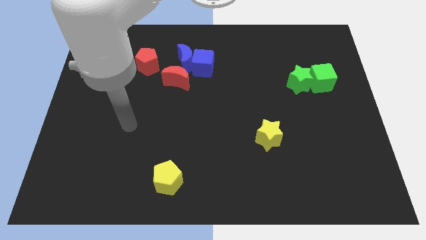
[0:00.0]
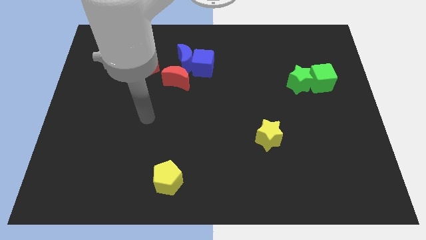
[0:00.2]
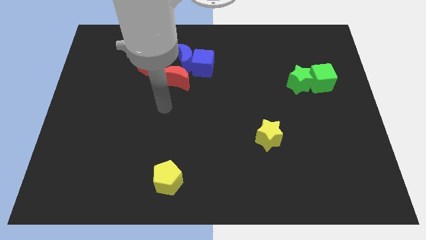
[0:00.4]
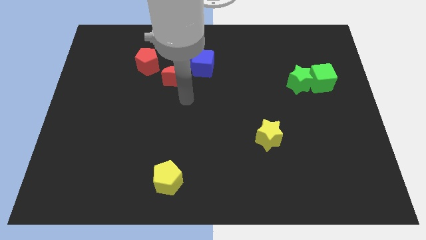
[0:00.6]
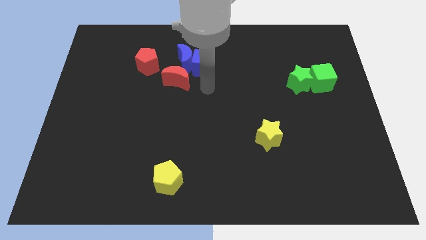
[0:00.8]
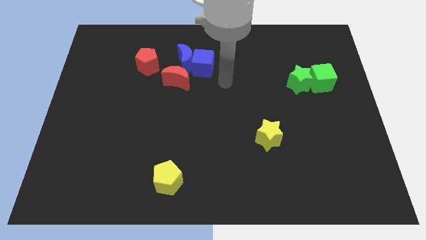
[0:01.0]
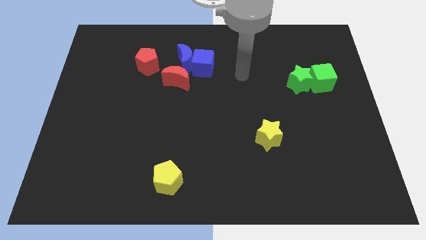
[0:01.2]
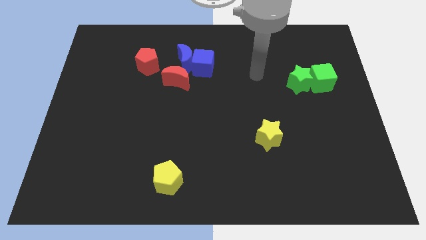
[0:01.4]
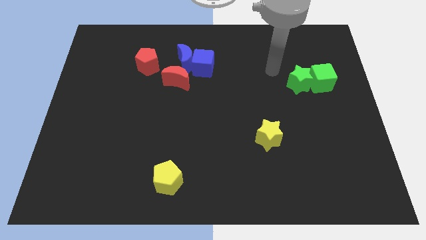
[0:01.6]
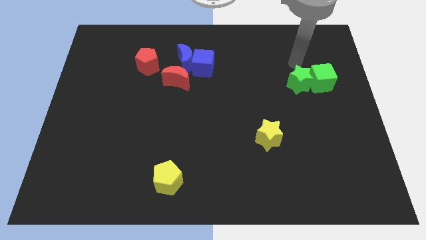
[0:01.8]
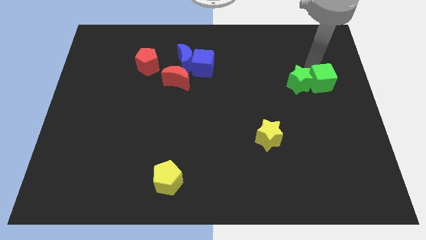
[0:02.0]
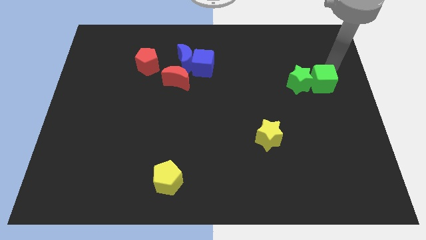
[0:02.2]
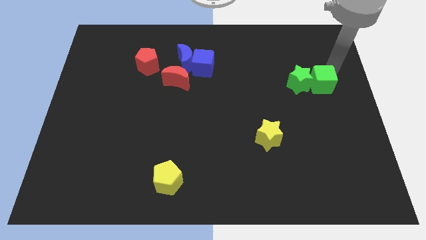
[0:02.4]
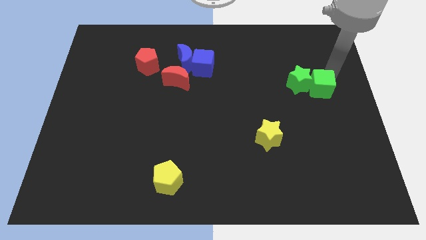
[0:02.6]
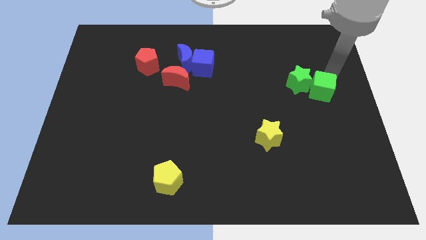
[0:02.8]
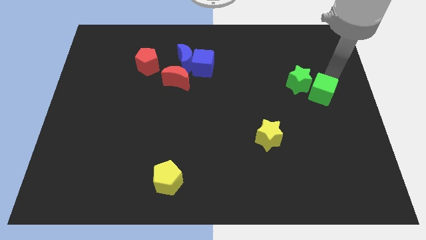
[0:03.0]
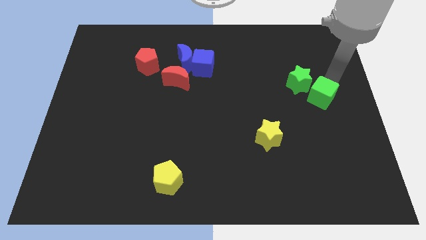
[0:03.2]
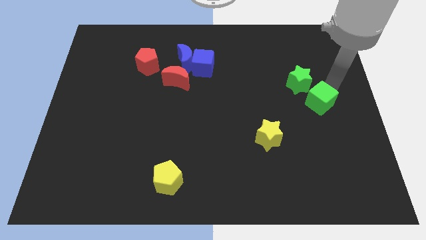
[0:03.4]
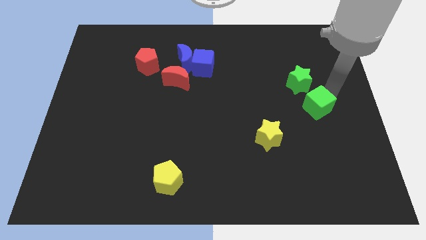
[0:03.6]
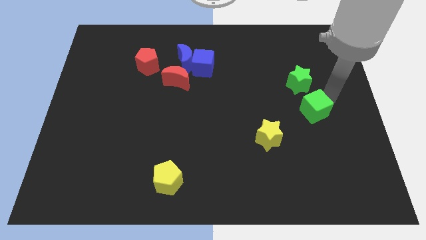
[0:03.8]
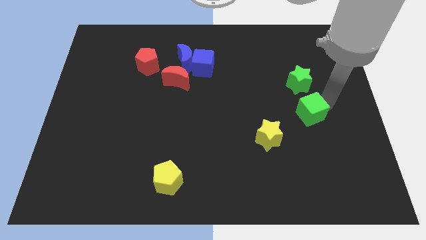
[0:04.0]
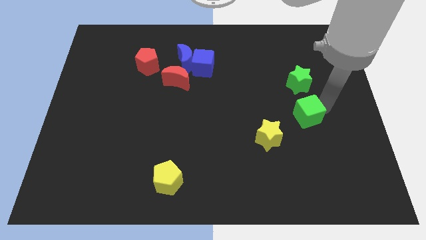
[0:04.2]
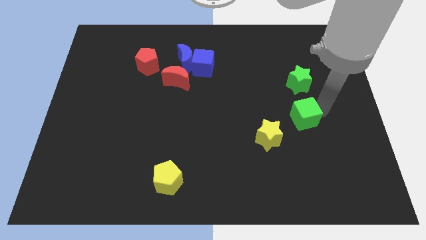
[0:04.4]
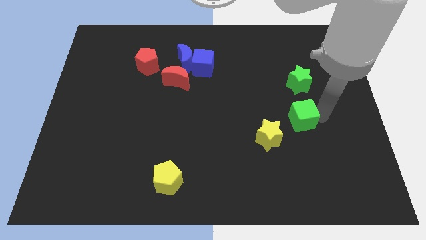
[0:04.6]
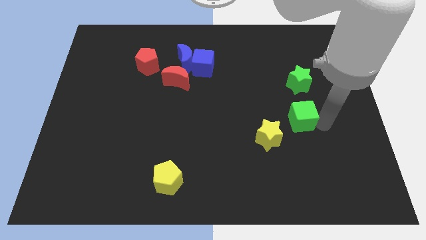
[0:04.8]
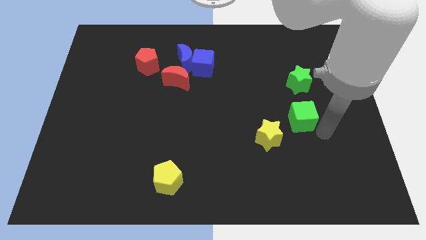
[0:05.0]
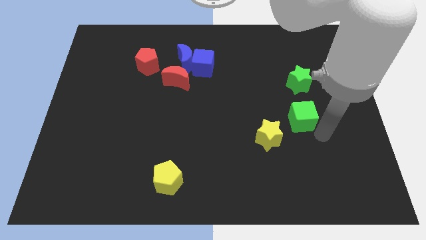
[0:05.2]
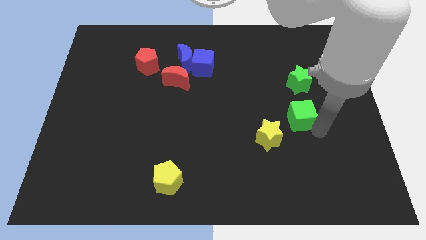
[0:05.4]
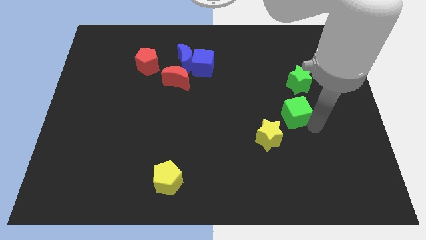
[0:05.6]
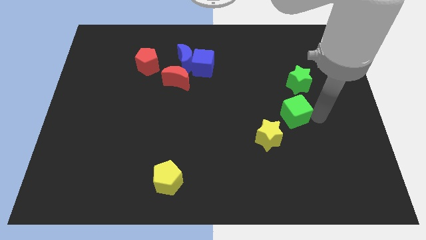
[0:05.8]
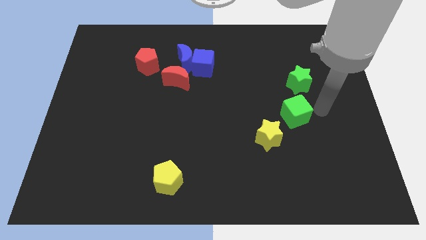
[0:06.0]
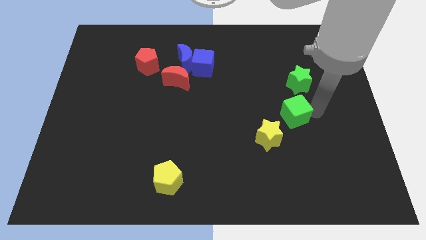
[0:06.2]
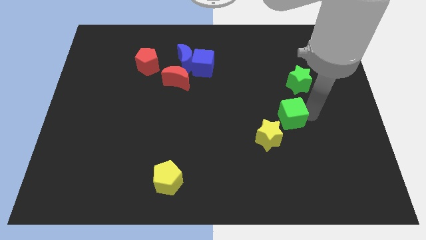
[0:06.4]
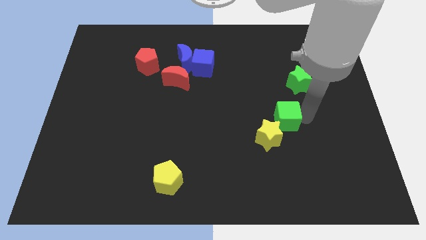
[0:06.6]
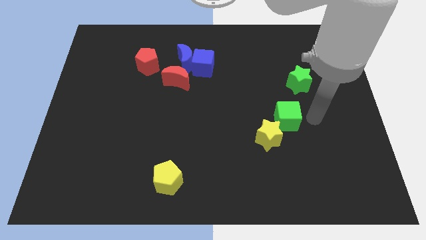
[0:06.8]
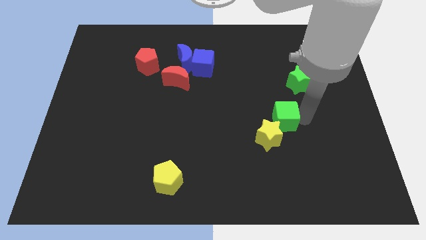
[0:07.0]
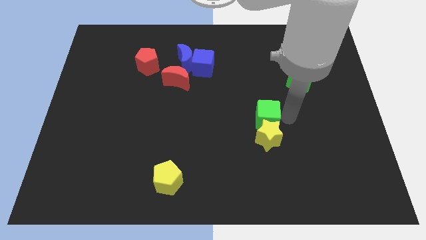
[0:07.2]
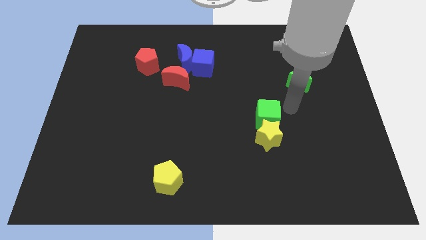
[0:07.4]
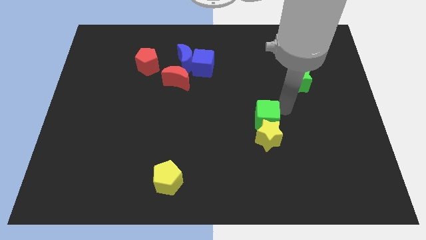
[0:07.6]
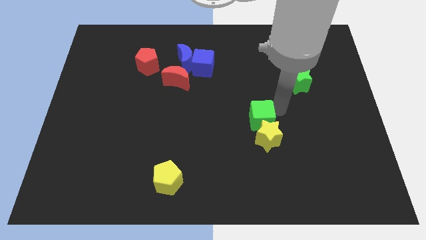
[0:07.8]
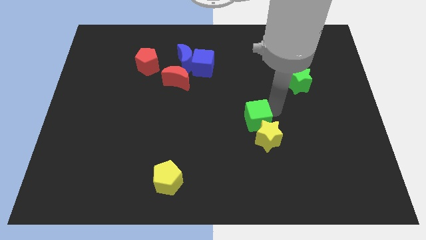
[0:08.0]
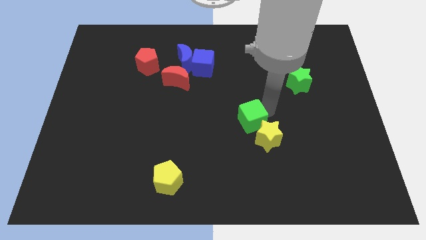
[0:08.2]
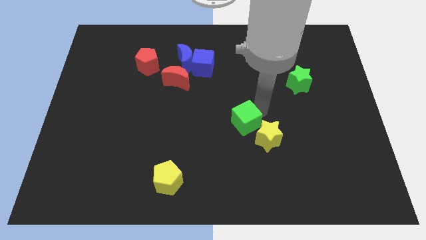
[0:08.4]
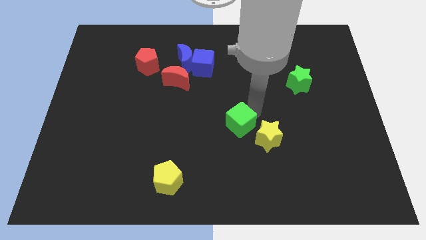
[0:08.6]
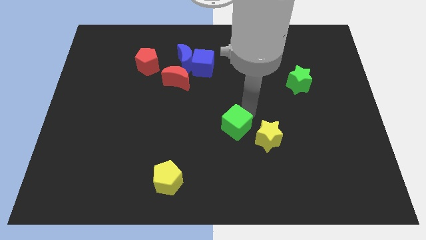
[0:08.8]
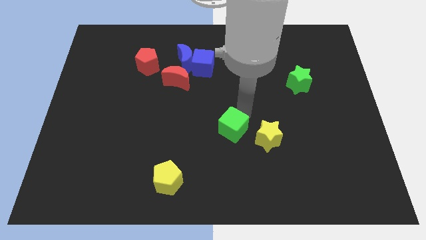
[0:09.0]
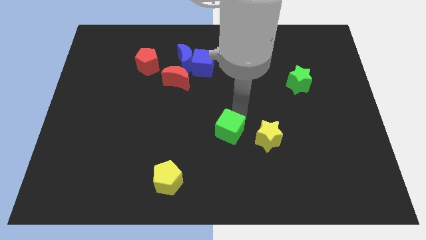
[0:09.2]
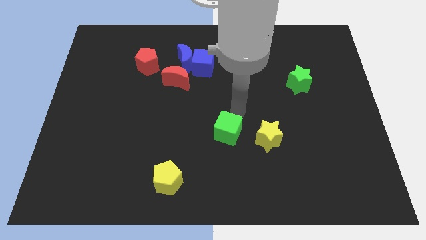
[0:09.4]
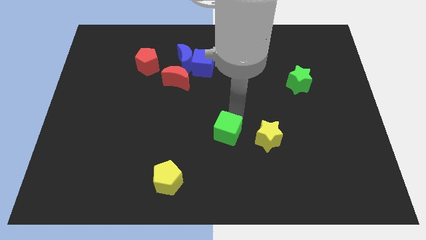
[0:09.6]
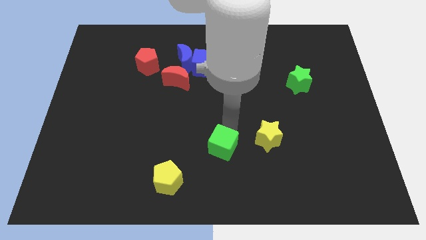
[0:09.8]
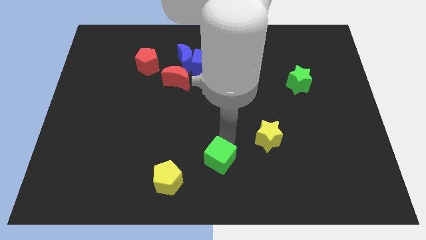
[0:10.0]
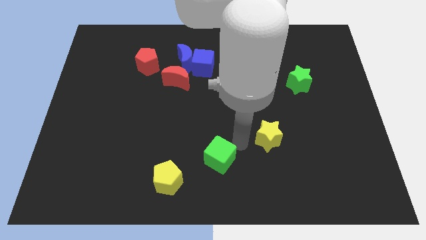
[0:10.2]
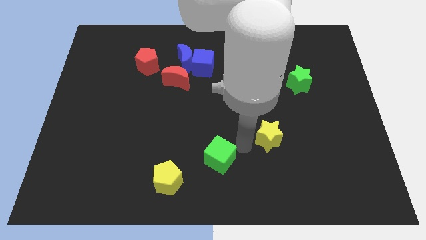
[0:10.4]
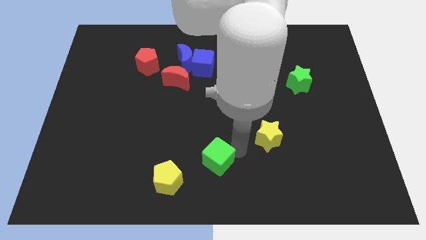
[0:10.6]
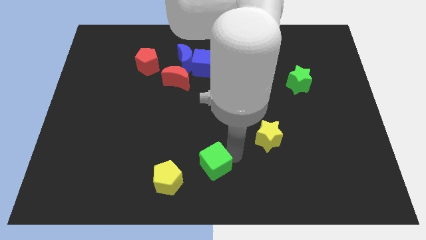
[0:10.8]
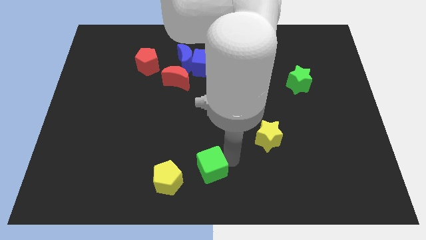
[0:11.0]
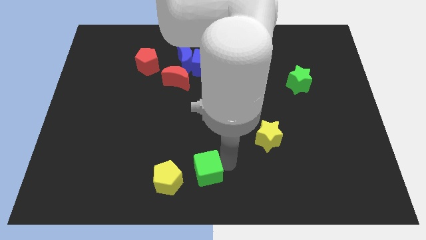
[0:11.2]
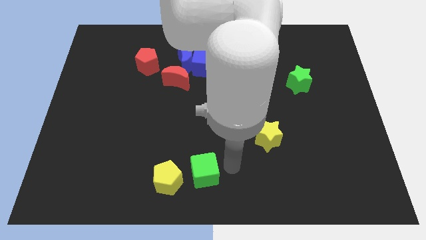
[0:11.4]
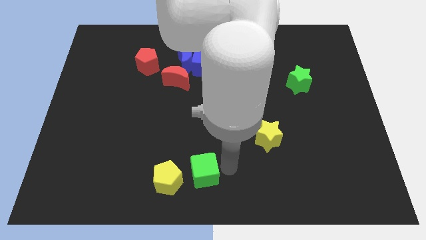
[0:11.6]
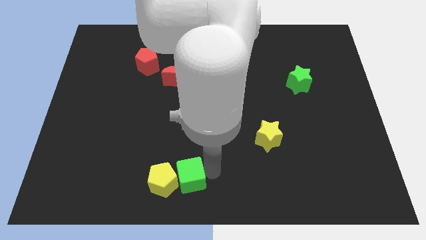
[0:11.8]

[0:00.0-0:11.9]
put the green cube next to the yellow pentagon

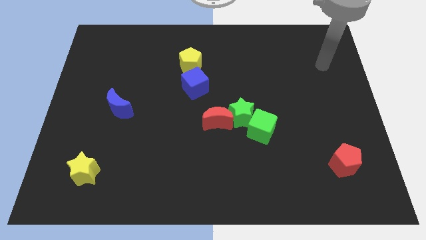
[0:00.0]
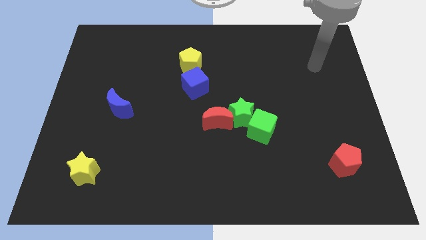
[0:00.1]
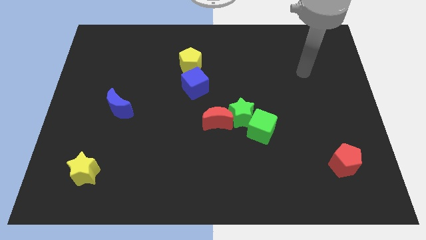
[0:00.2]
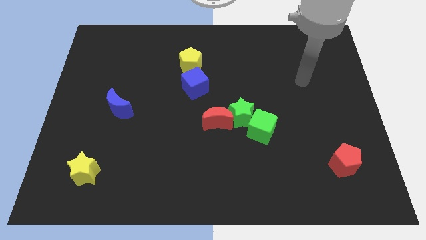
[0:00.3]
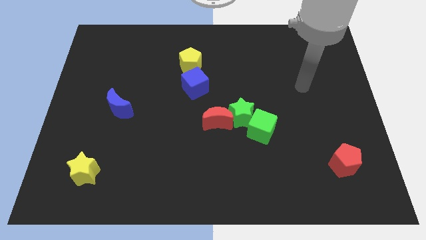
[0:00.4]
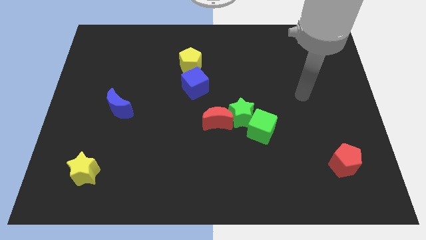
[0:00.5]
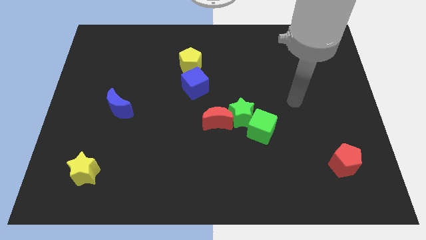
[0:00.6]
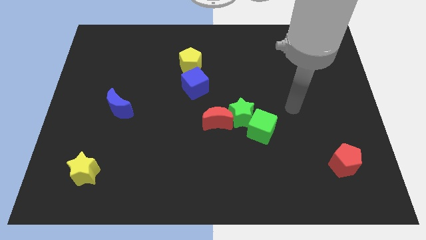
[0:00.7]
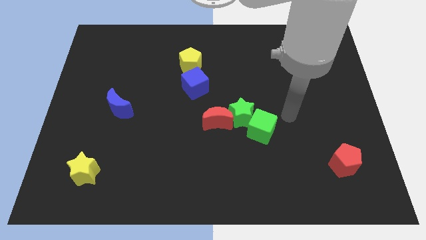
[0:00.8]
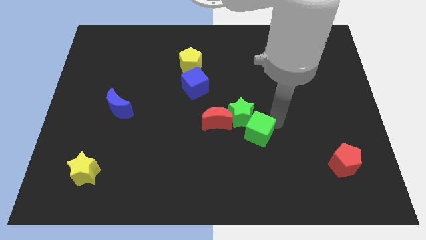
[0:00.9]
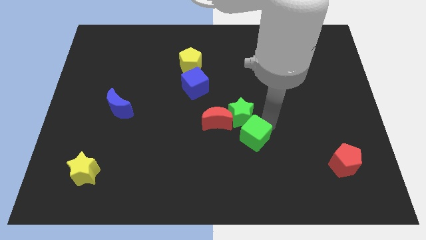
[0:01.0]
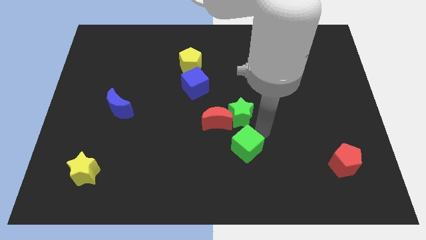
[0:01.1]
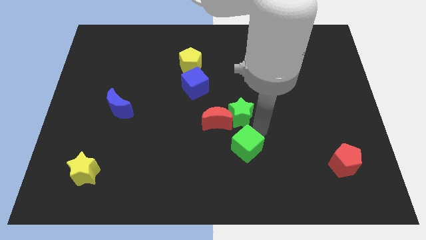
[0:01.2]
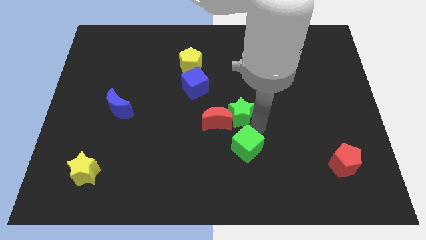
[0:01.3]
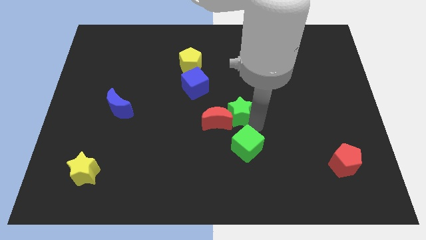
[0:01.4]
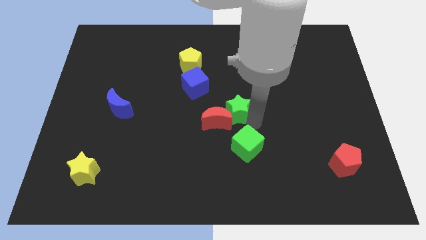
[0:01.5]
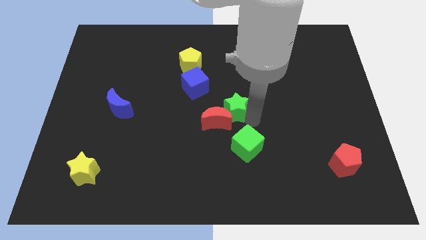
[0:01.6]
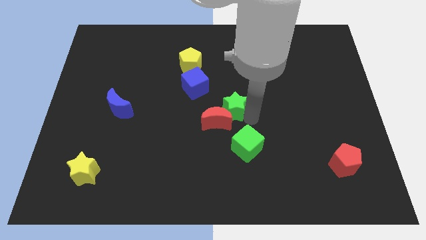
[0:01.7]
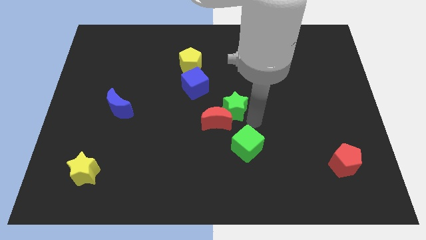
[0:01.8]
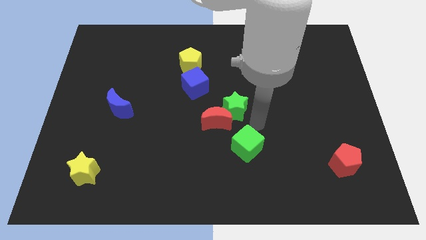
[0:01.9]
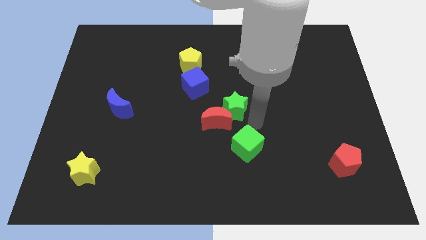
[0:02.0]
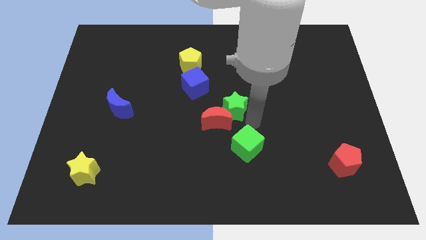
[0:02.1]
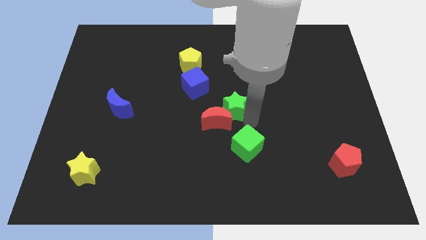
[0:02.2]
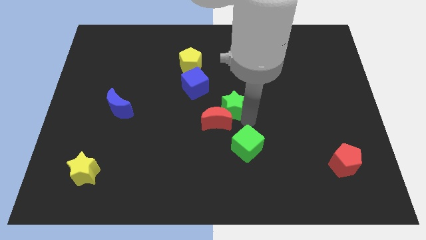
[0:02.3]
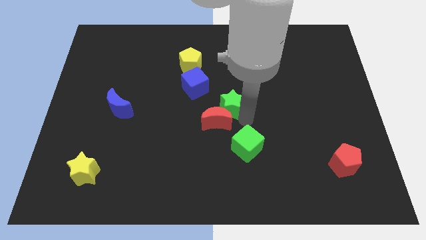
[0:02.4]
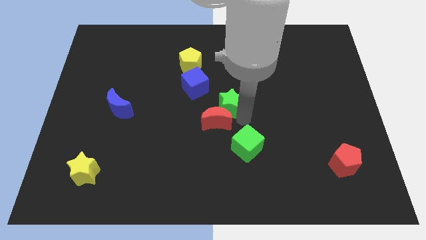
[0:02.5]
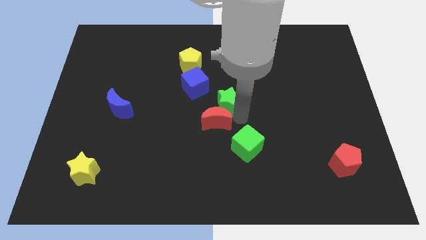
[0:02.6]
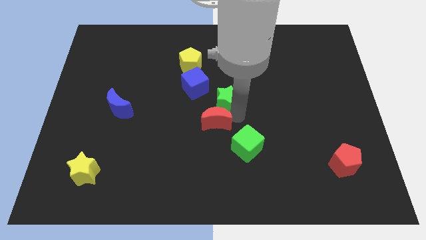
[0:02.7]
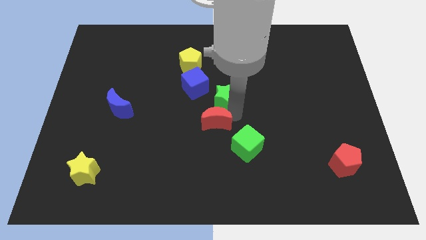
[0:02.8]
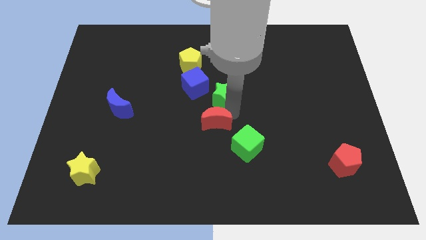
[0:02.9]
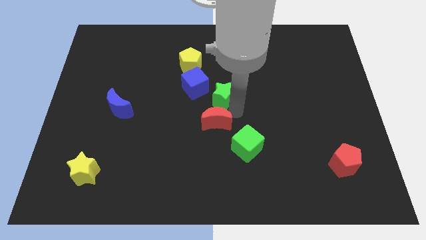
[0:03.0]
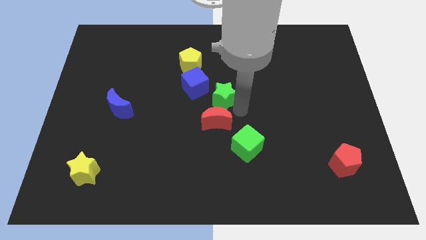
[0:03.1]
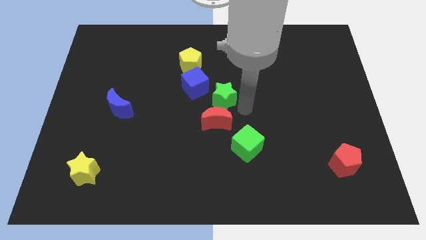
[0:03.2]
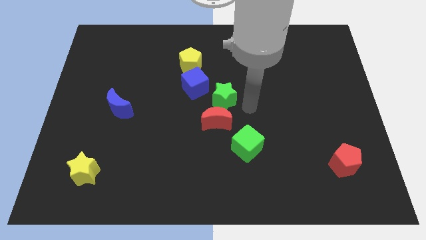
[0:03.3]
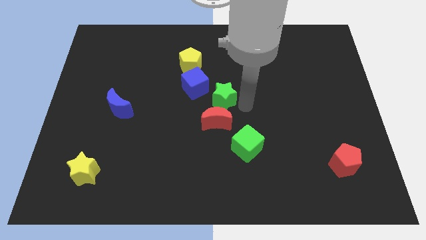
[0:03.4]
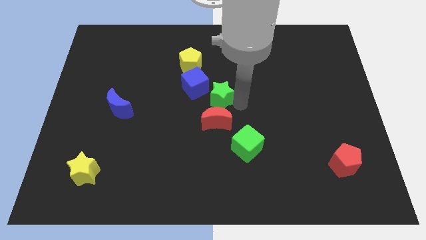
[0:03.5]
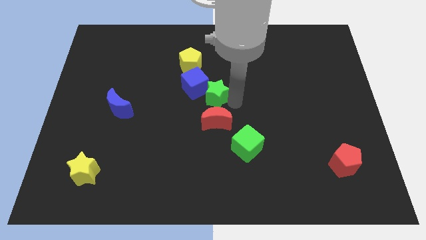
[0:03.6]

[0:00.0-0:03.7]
slide the green star to the blue cube
